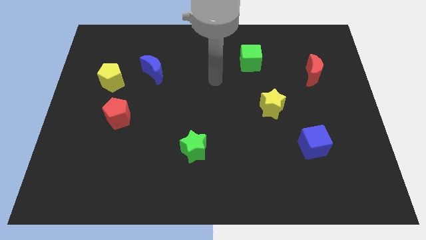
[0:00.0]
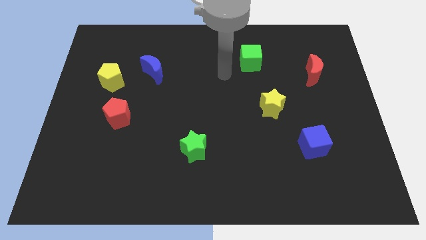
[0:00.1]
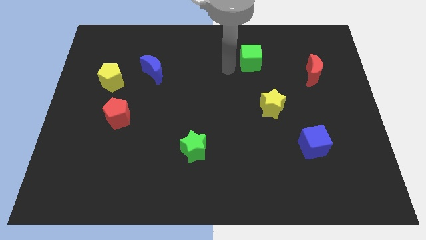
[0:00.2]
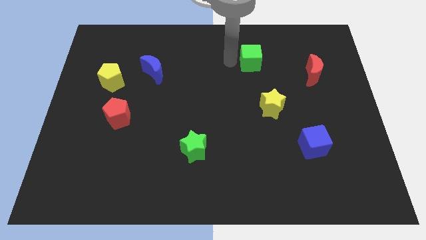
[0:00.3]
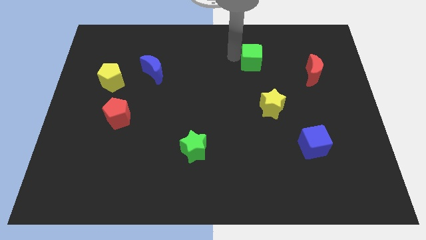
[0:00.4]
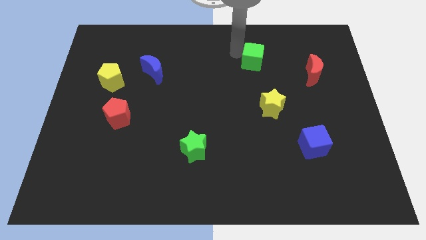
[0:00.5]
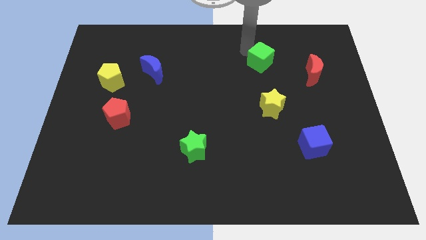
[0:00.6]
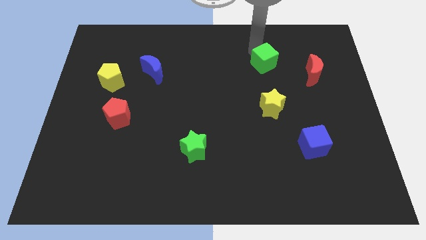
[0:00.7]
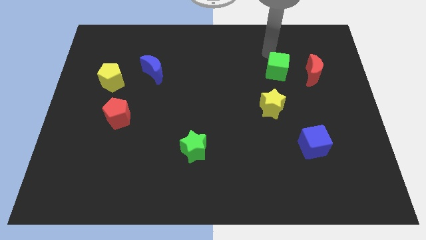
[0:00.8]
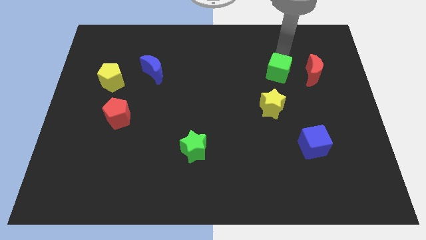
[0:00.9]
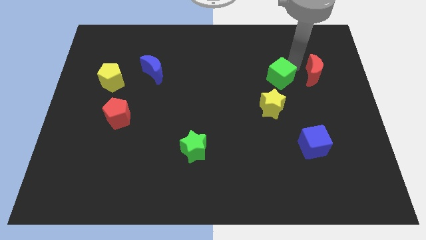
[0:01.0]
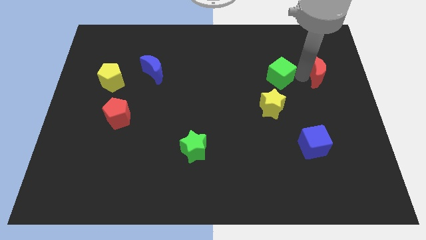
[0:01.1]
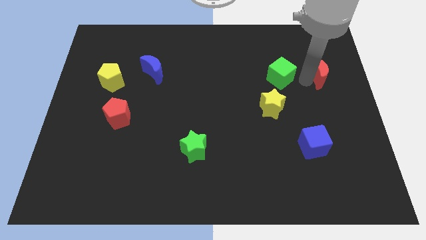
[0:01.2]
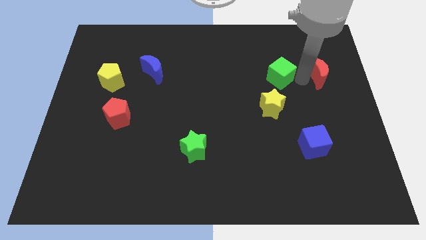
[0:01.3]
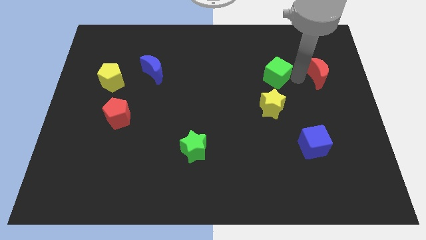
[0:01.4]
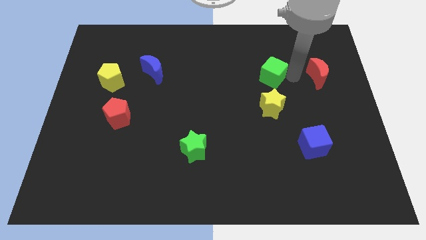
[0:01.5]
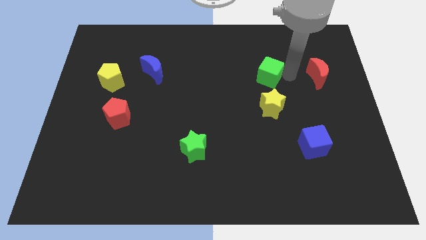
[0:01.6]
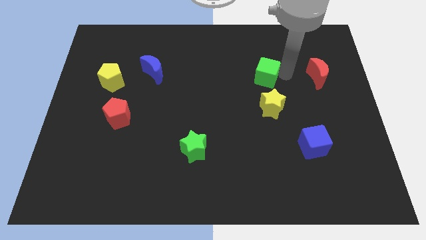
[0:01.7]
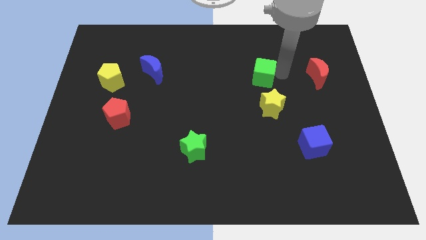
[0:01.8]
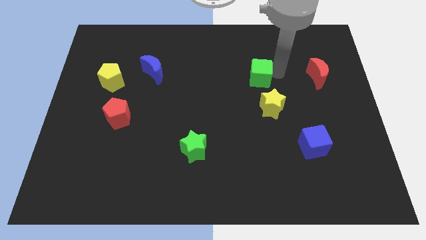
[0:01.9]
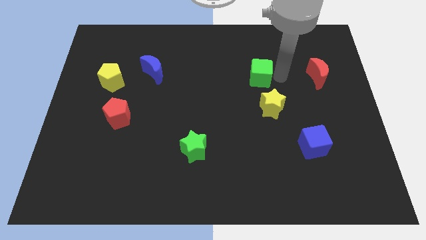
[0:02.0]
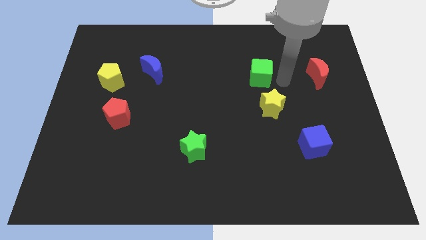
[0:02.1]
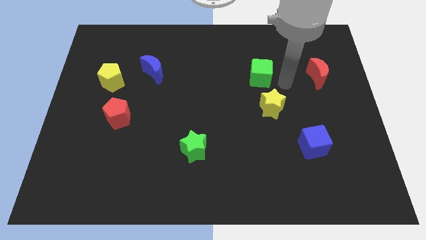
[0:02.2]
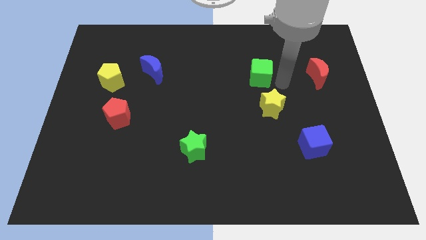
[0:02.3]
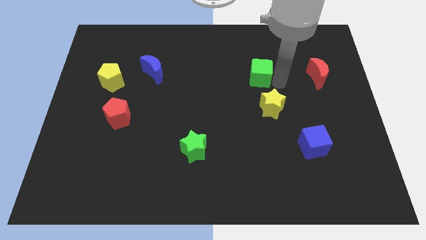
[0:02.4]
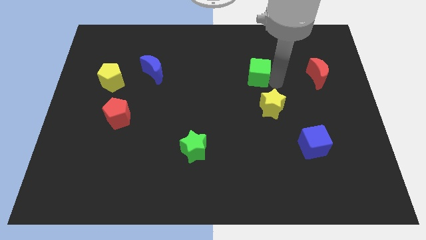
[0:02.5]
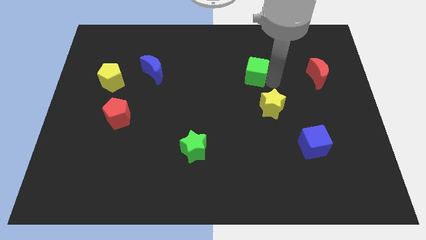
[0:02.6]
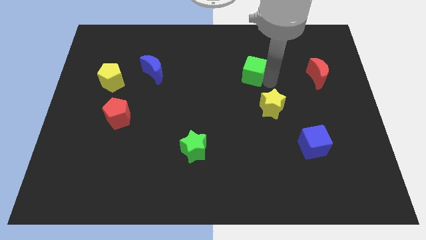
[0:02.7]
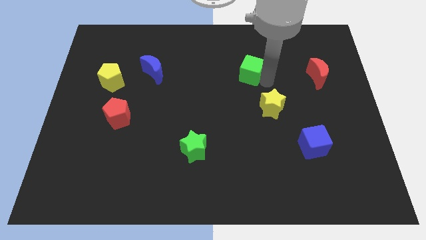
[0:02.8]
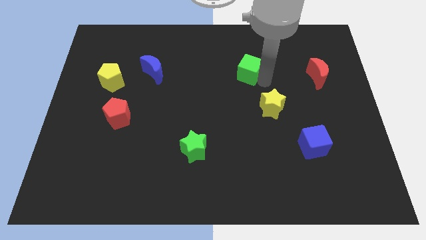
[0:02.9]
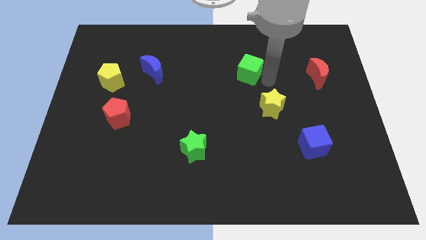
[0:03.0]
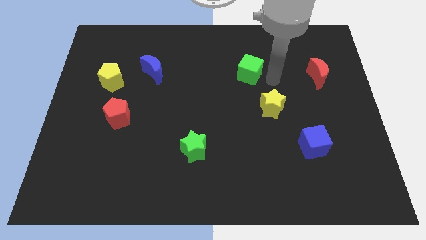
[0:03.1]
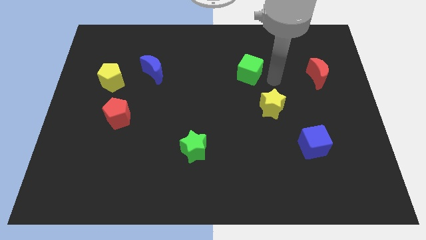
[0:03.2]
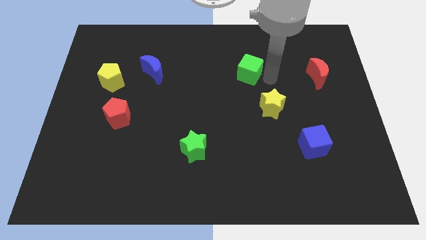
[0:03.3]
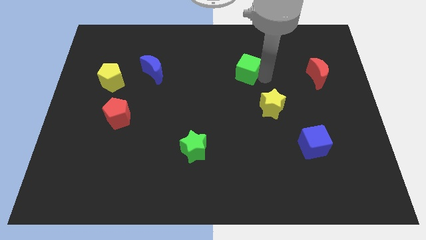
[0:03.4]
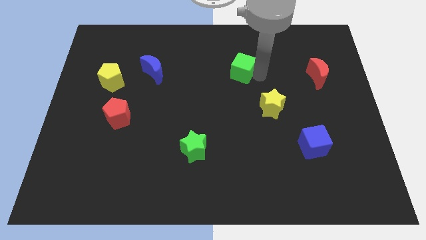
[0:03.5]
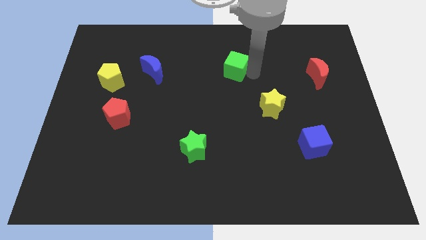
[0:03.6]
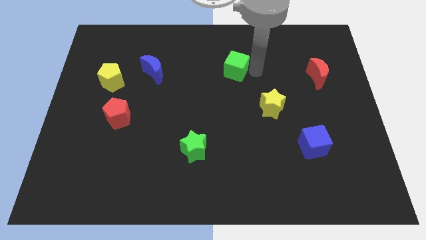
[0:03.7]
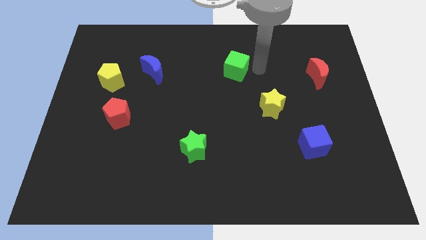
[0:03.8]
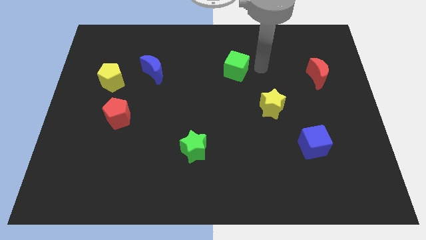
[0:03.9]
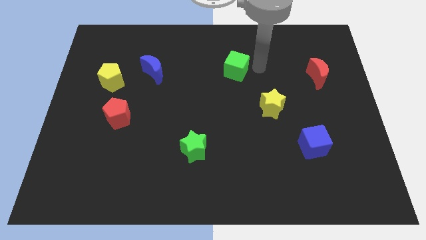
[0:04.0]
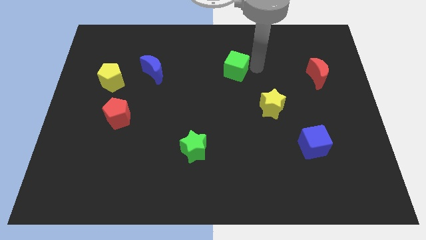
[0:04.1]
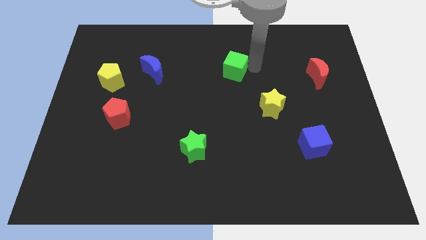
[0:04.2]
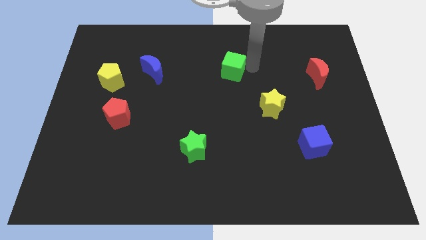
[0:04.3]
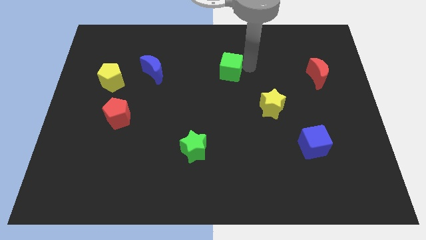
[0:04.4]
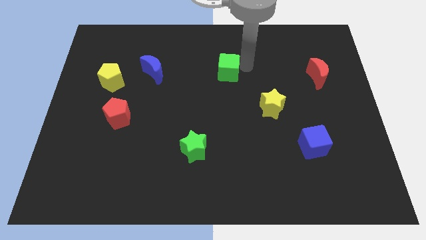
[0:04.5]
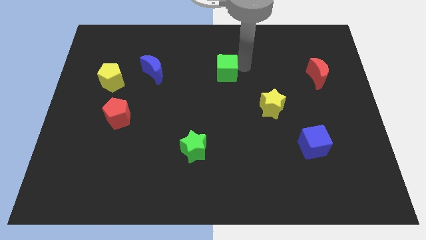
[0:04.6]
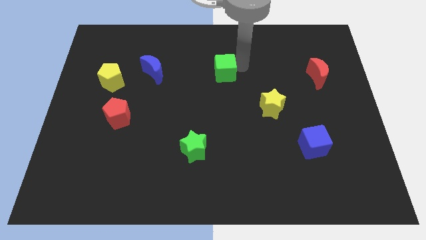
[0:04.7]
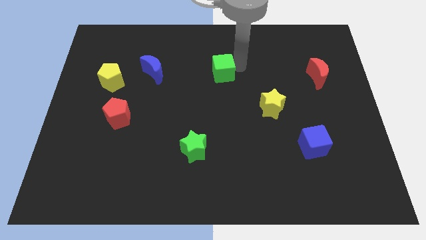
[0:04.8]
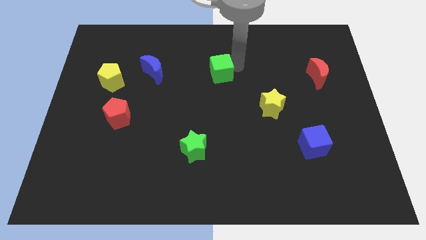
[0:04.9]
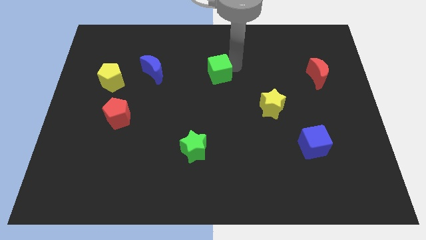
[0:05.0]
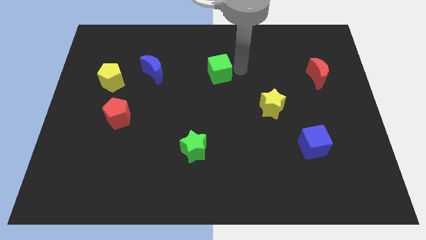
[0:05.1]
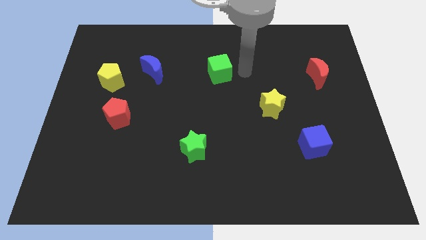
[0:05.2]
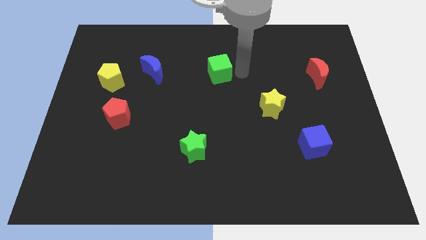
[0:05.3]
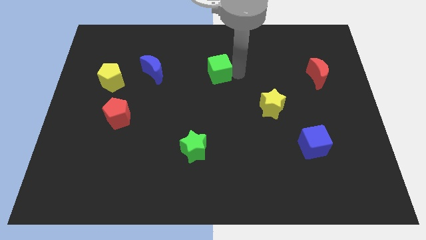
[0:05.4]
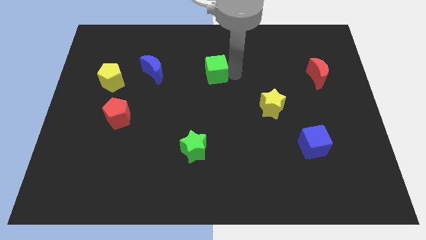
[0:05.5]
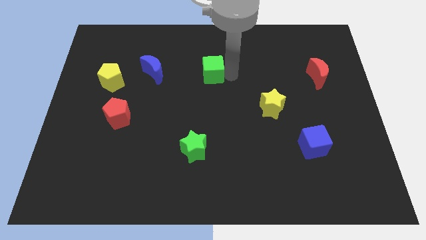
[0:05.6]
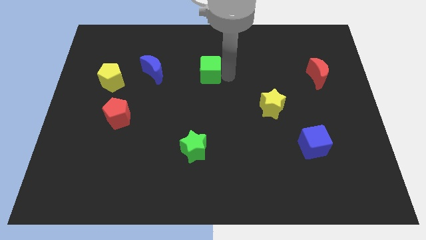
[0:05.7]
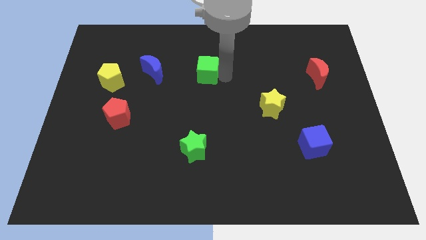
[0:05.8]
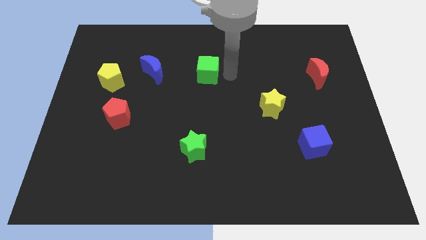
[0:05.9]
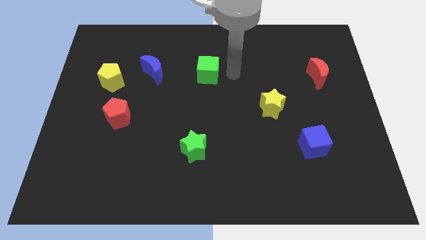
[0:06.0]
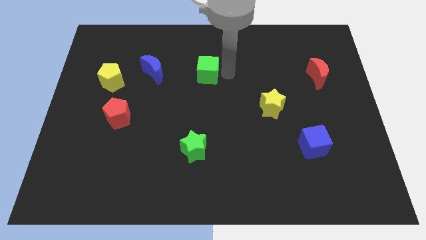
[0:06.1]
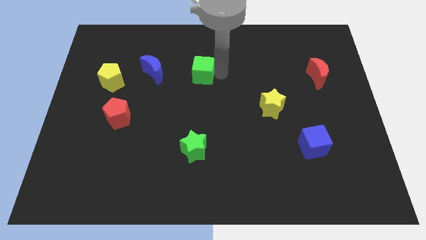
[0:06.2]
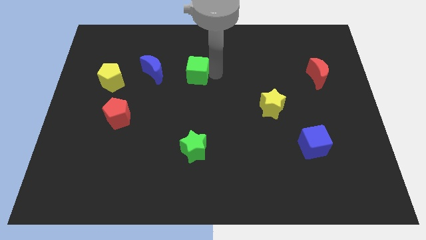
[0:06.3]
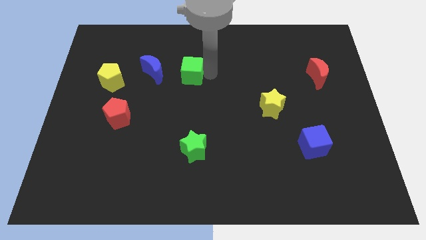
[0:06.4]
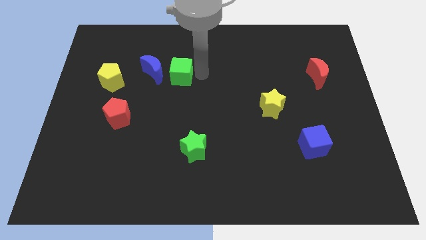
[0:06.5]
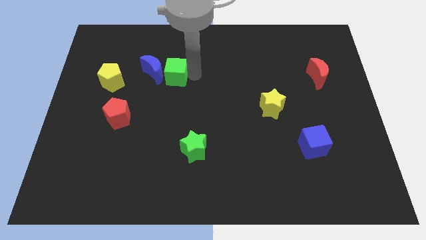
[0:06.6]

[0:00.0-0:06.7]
put the green cube towards the blue moon
